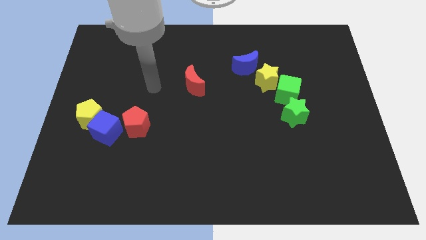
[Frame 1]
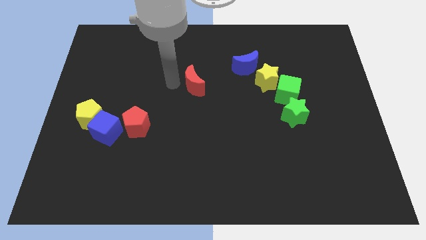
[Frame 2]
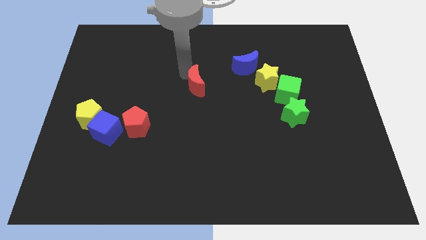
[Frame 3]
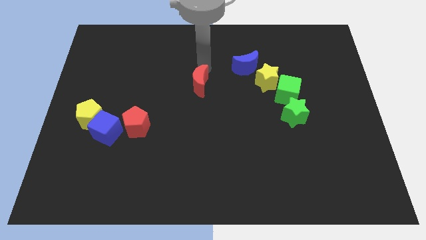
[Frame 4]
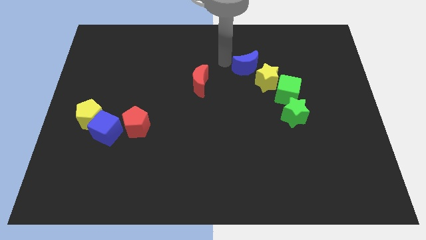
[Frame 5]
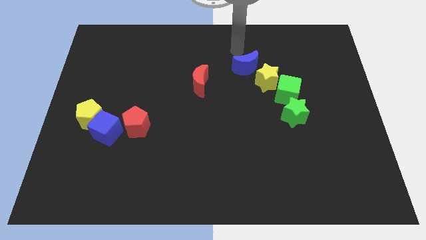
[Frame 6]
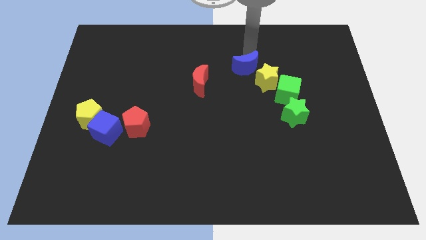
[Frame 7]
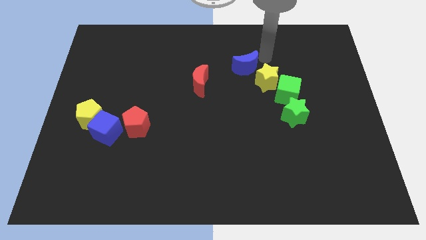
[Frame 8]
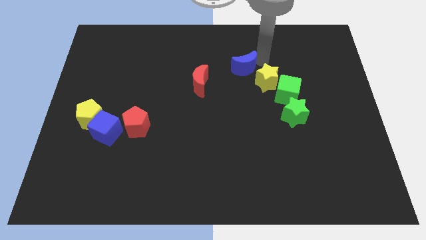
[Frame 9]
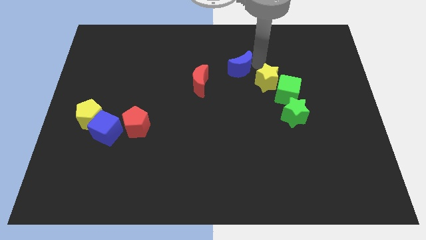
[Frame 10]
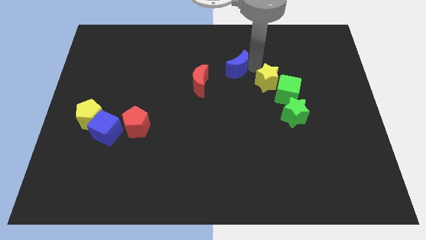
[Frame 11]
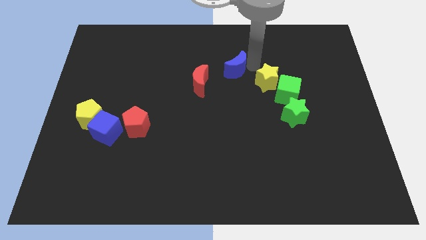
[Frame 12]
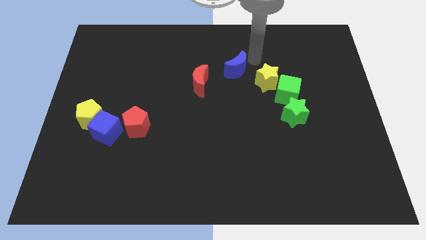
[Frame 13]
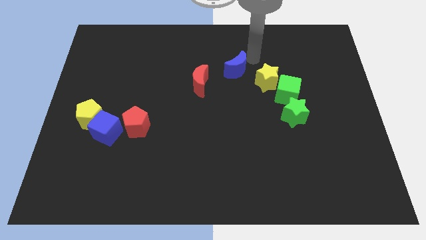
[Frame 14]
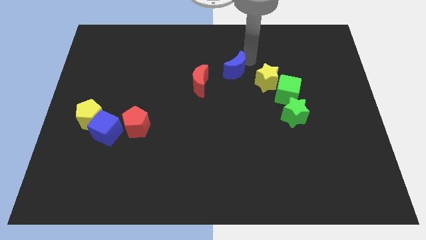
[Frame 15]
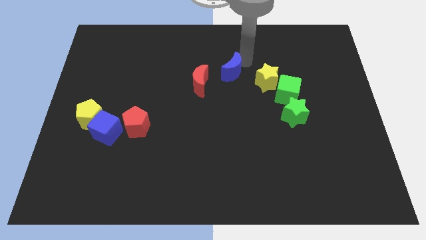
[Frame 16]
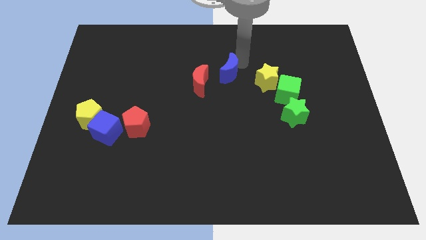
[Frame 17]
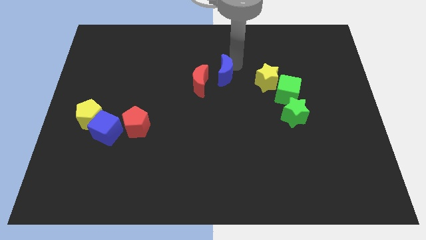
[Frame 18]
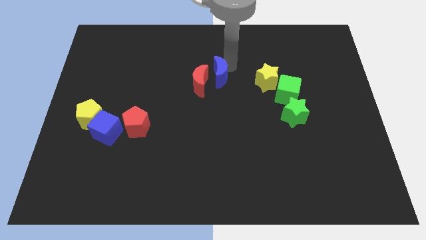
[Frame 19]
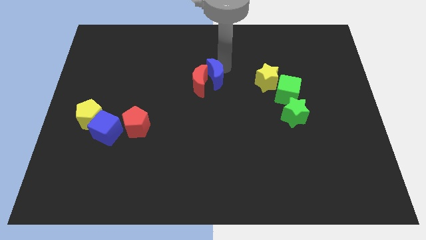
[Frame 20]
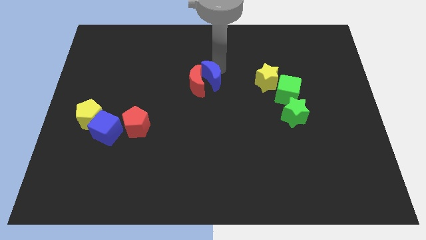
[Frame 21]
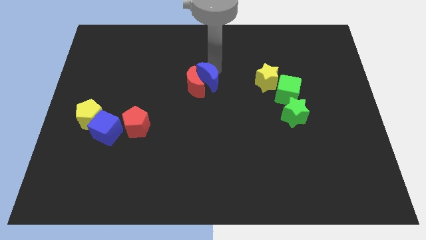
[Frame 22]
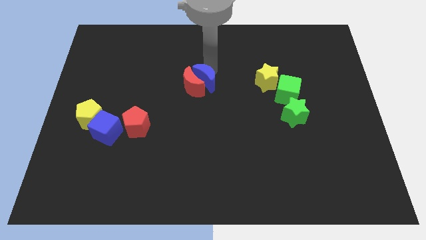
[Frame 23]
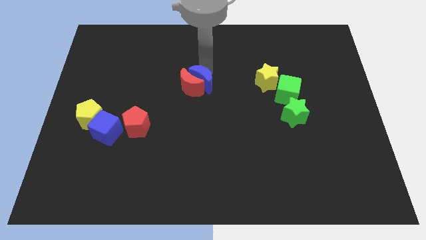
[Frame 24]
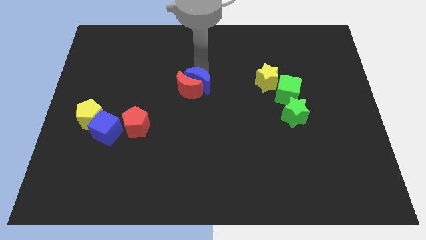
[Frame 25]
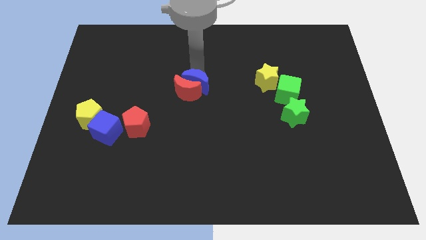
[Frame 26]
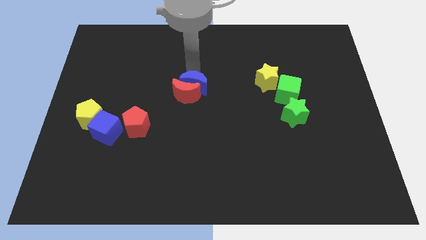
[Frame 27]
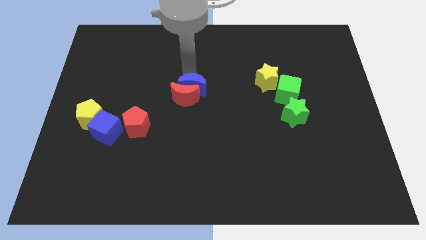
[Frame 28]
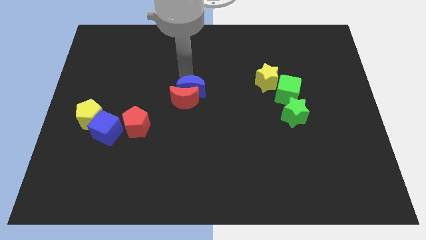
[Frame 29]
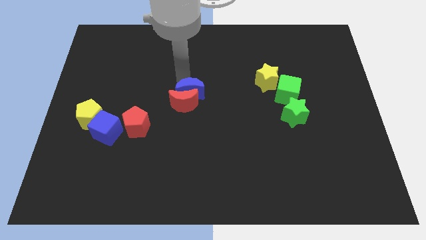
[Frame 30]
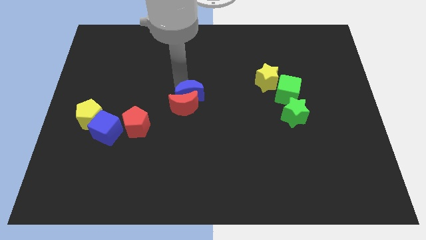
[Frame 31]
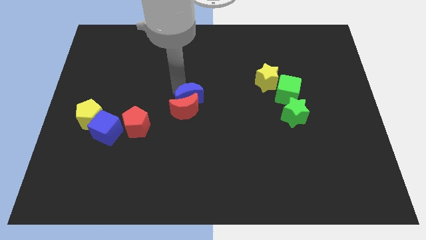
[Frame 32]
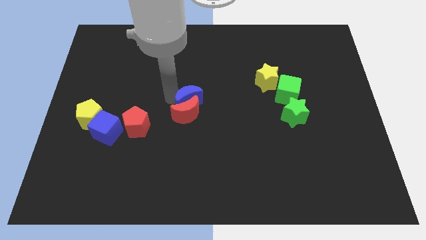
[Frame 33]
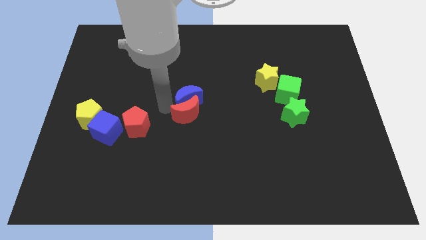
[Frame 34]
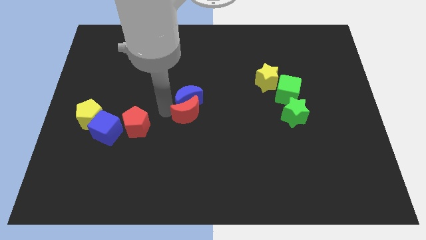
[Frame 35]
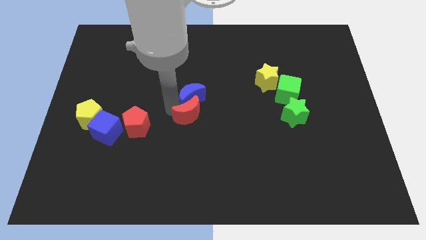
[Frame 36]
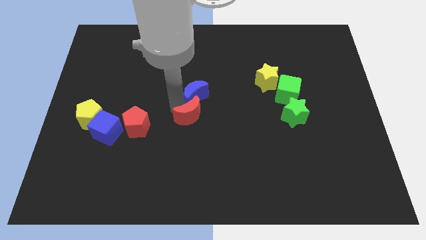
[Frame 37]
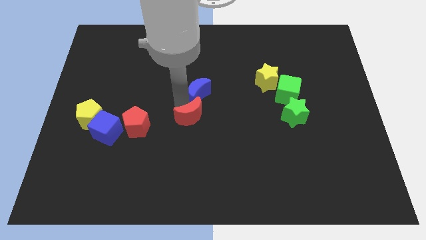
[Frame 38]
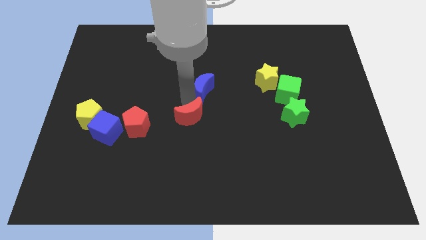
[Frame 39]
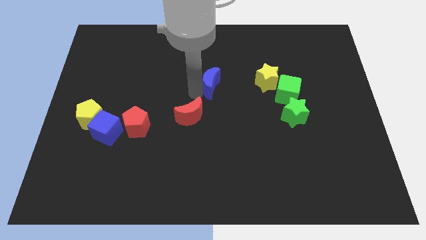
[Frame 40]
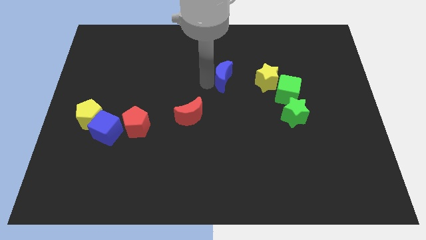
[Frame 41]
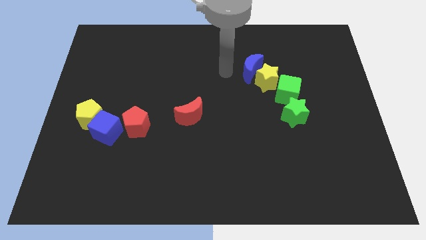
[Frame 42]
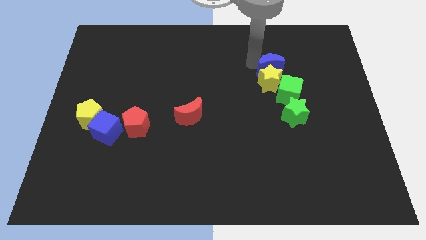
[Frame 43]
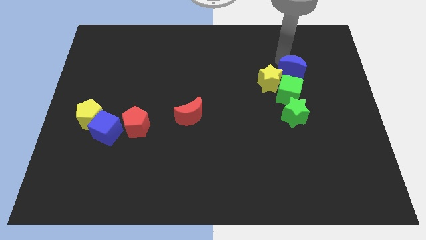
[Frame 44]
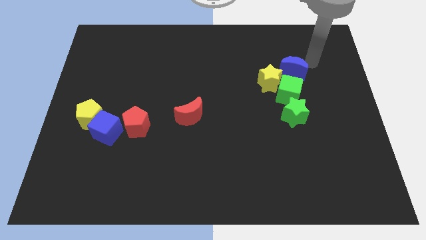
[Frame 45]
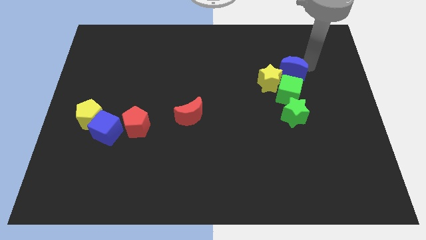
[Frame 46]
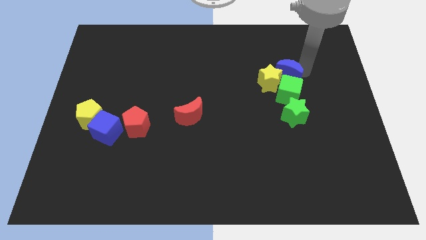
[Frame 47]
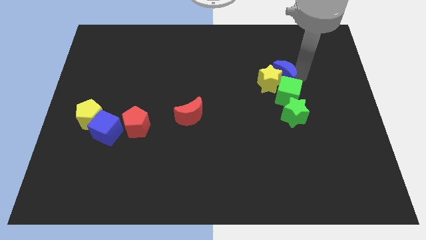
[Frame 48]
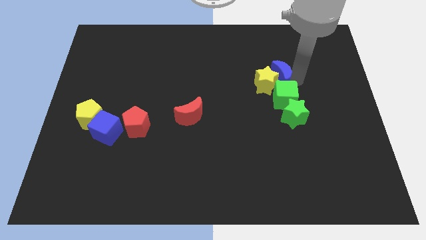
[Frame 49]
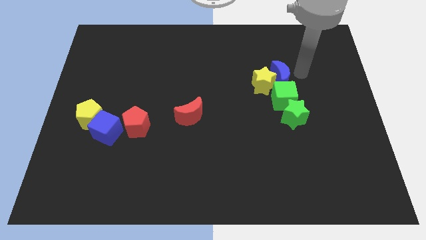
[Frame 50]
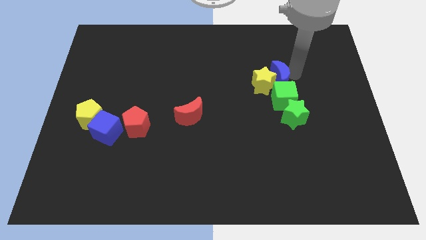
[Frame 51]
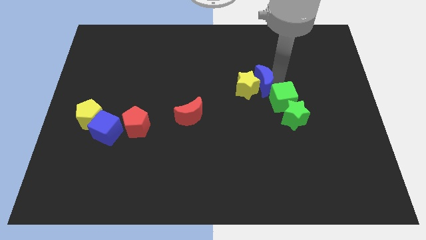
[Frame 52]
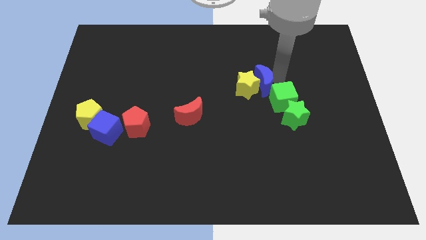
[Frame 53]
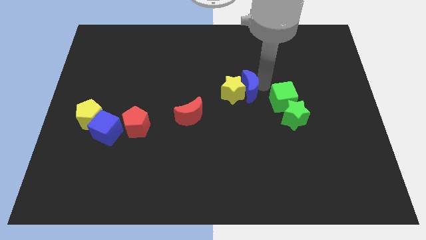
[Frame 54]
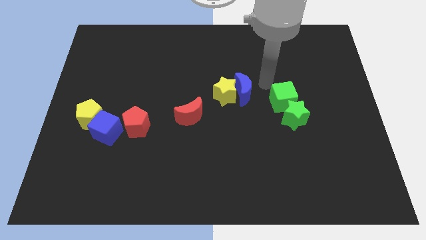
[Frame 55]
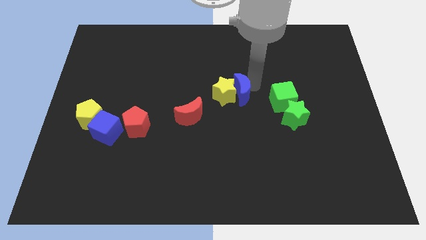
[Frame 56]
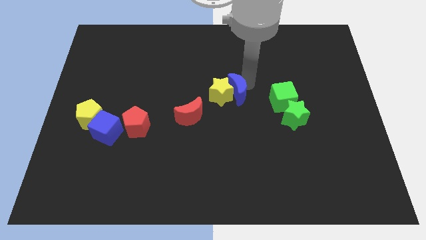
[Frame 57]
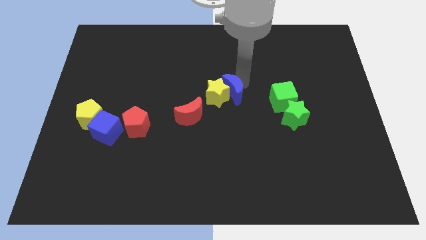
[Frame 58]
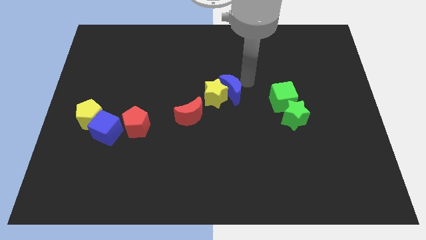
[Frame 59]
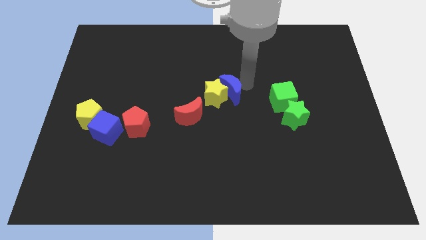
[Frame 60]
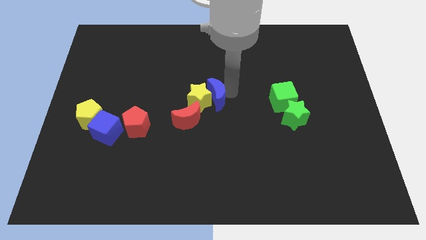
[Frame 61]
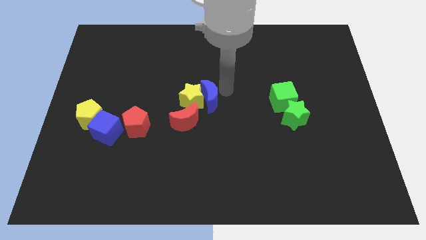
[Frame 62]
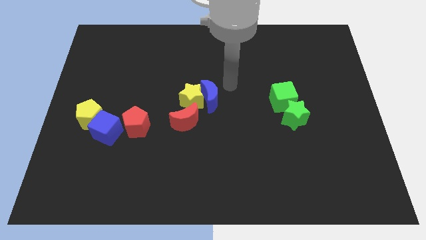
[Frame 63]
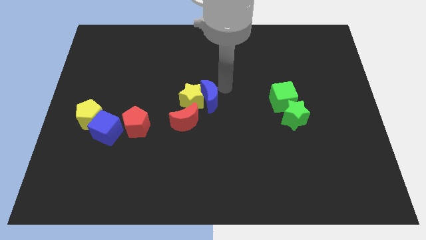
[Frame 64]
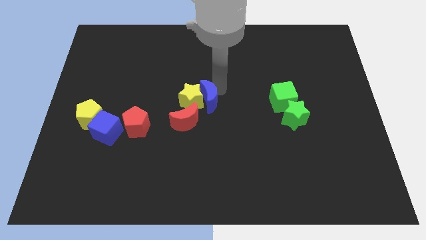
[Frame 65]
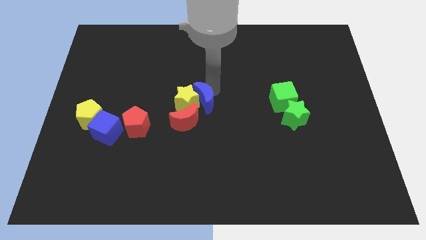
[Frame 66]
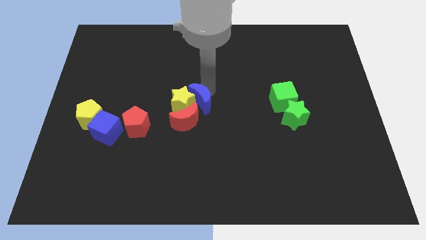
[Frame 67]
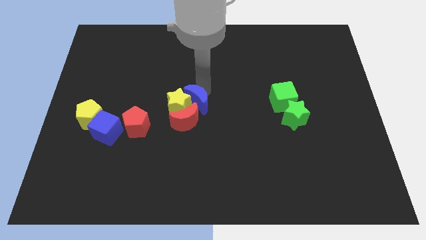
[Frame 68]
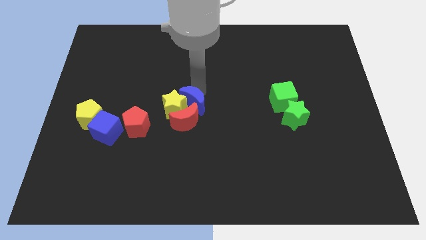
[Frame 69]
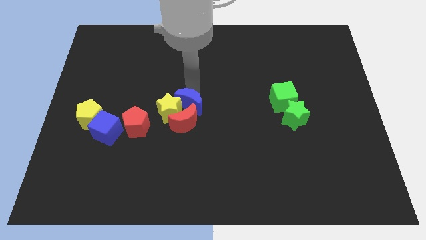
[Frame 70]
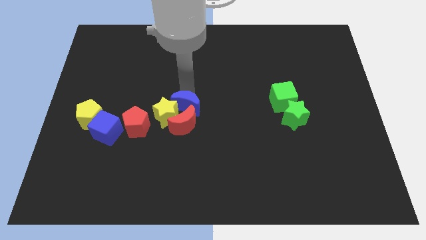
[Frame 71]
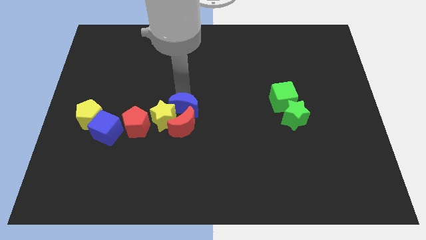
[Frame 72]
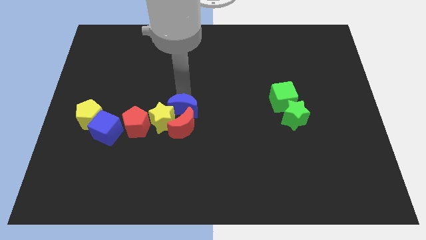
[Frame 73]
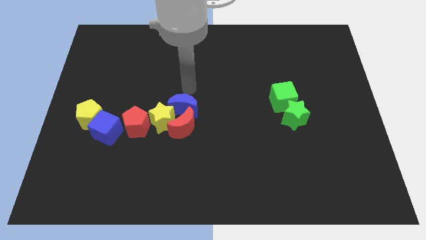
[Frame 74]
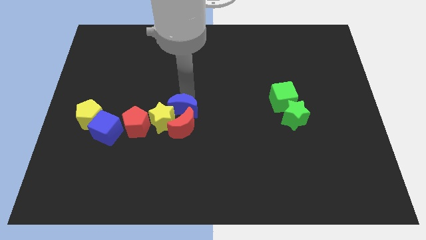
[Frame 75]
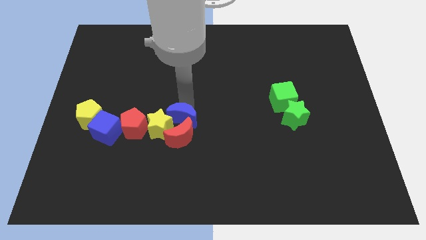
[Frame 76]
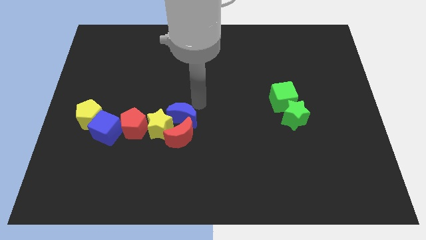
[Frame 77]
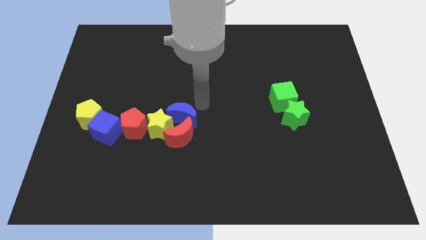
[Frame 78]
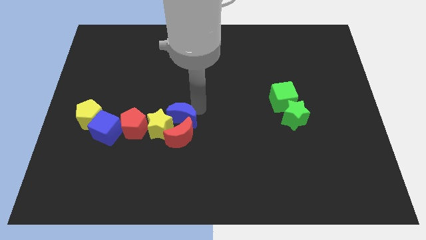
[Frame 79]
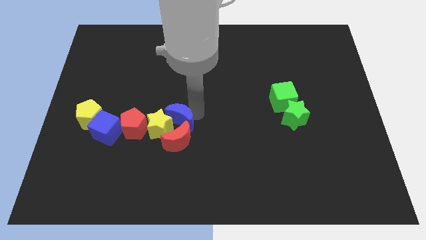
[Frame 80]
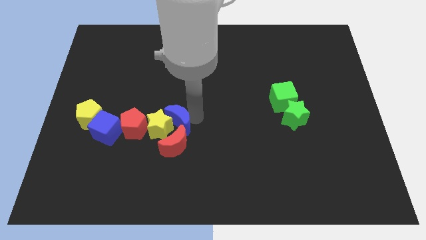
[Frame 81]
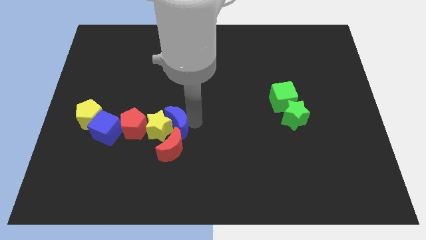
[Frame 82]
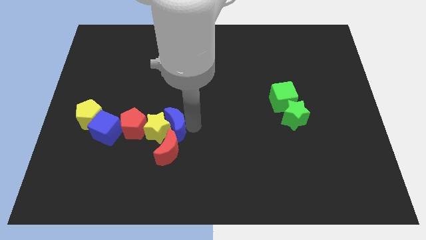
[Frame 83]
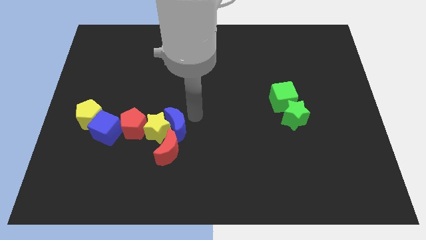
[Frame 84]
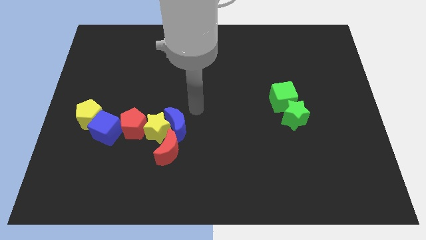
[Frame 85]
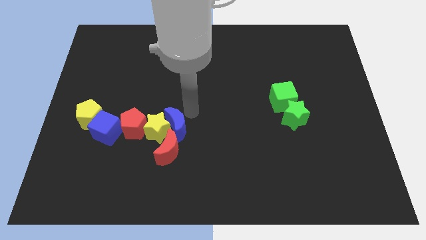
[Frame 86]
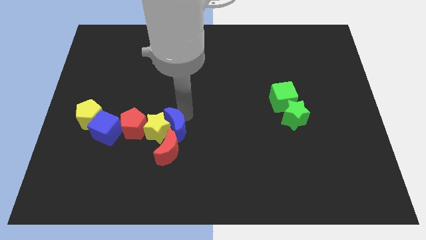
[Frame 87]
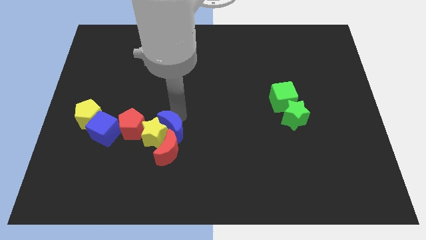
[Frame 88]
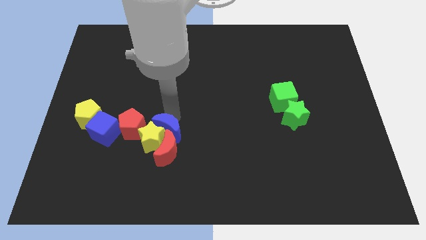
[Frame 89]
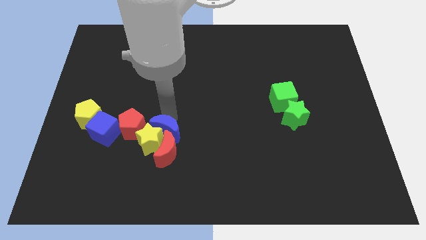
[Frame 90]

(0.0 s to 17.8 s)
put the blue moon to the bottom right side of the red pentagon
